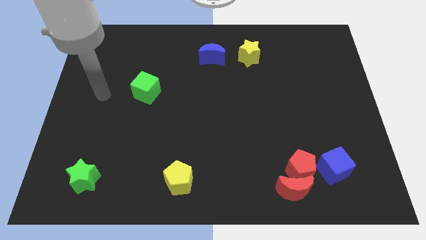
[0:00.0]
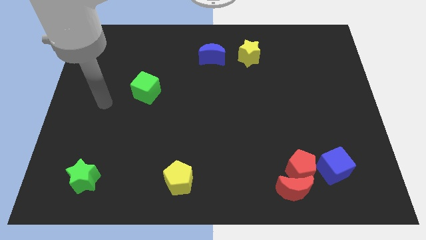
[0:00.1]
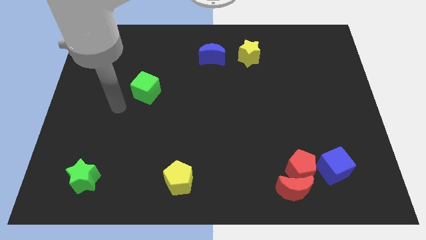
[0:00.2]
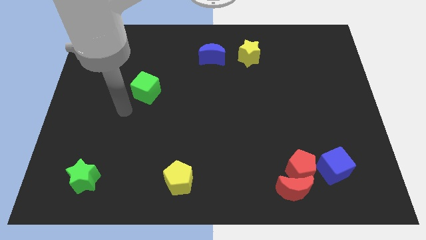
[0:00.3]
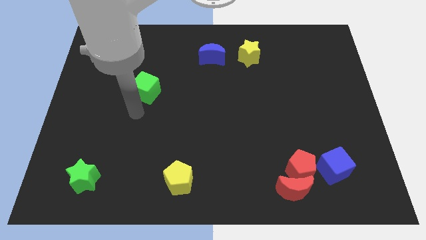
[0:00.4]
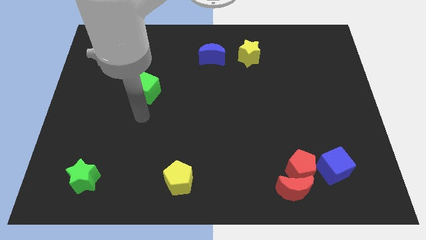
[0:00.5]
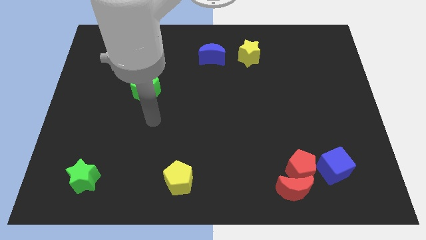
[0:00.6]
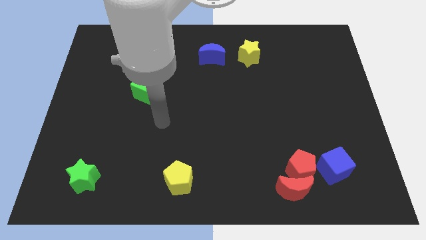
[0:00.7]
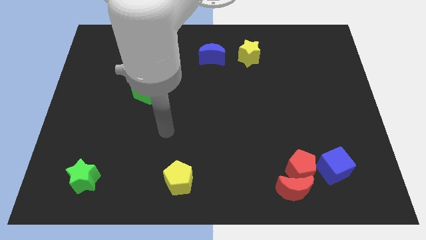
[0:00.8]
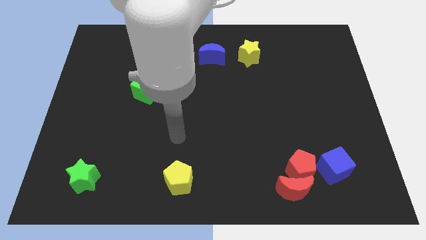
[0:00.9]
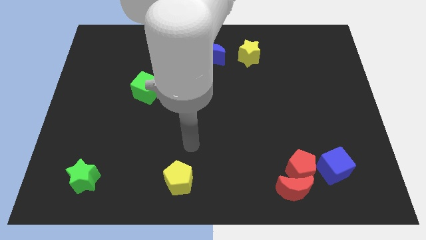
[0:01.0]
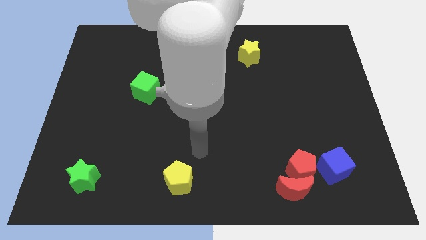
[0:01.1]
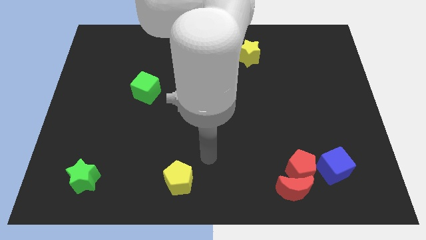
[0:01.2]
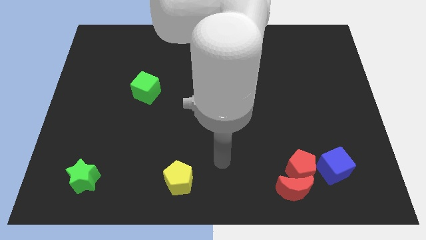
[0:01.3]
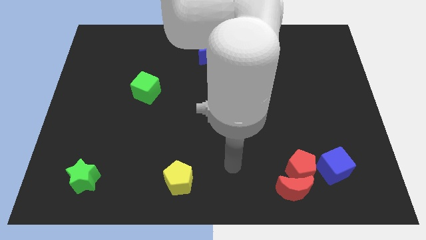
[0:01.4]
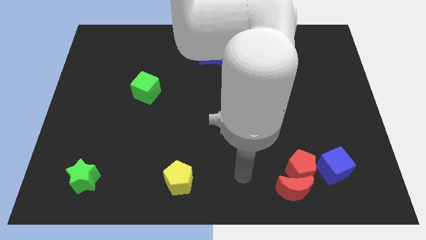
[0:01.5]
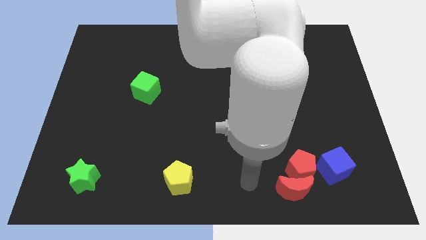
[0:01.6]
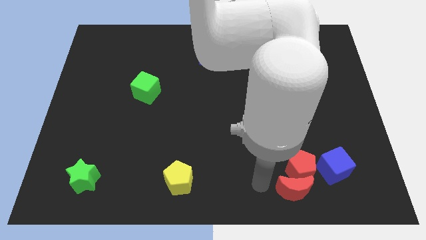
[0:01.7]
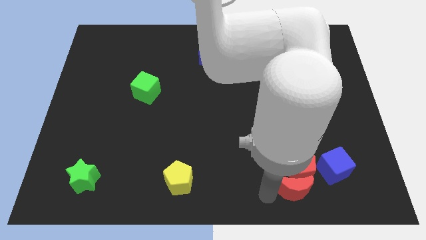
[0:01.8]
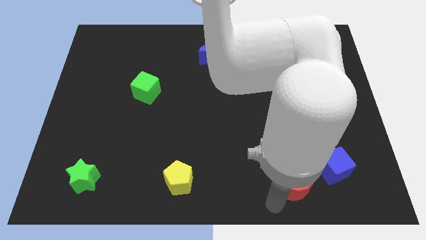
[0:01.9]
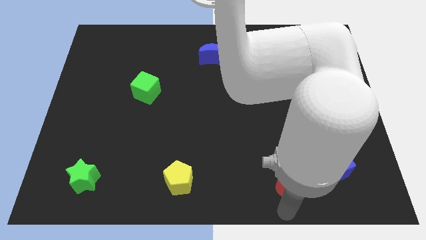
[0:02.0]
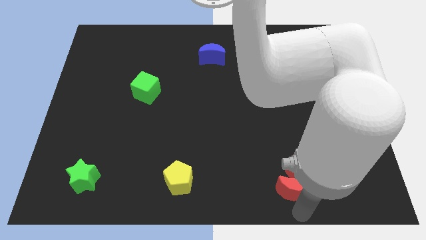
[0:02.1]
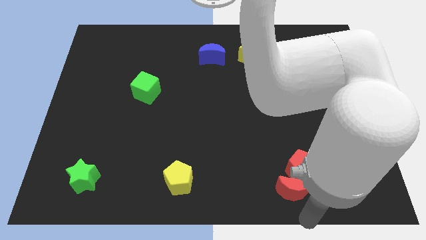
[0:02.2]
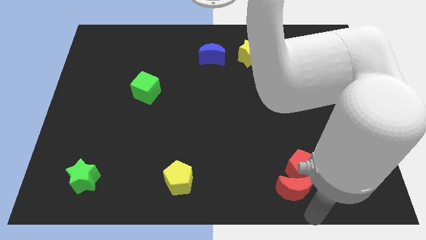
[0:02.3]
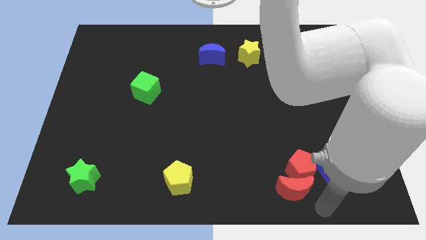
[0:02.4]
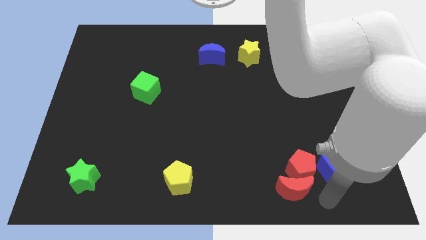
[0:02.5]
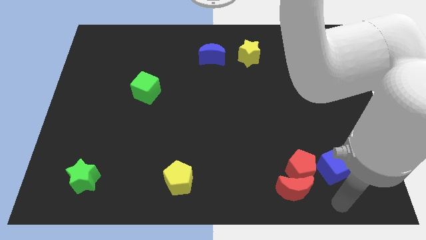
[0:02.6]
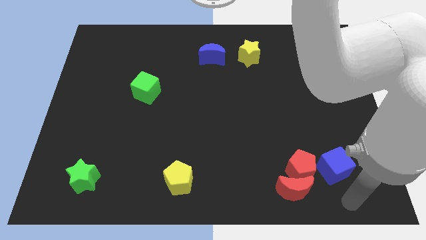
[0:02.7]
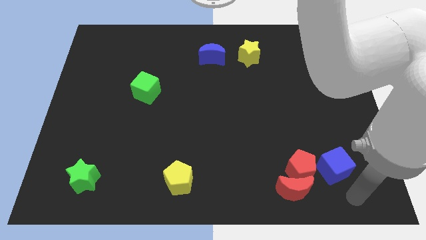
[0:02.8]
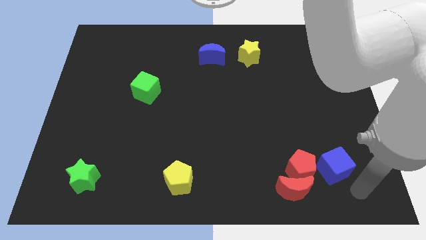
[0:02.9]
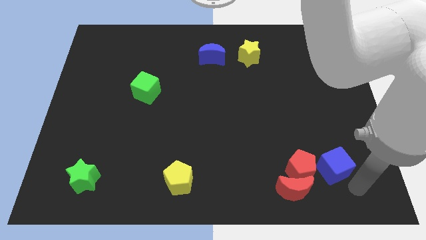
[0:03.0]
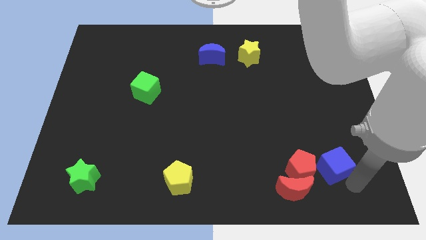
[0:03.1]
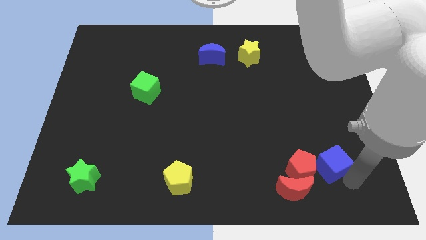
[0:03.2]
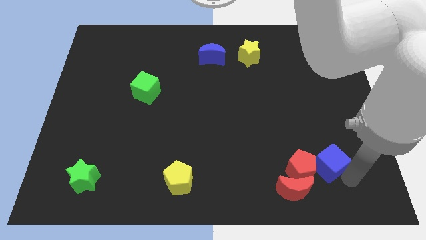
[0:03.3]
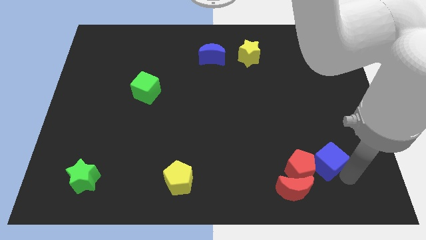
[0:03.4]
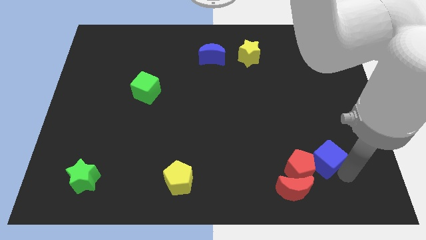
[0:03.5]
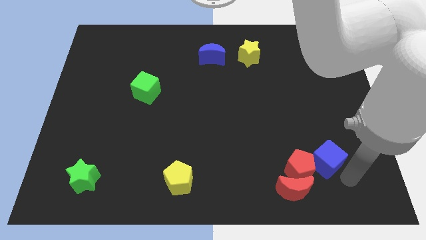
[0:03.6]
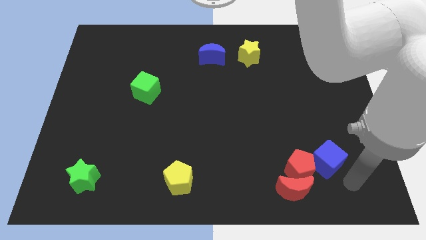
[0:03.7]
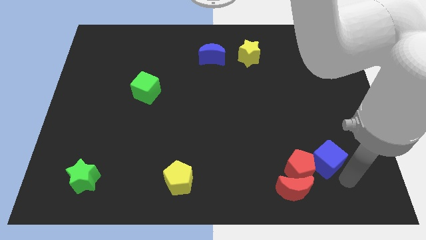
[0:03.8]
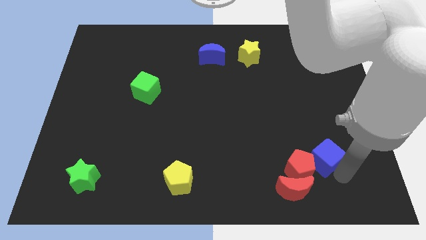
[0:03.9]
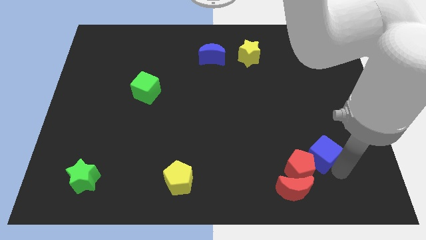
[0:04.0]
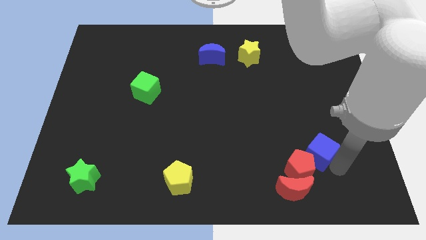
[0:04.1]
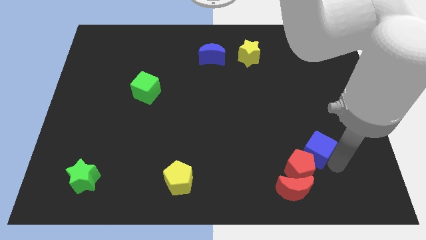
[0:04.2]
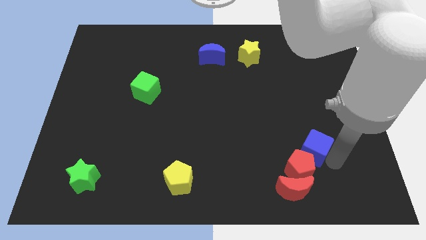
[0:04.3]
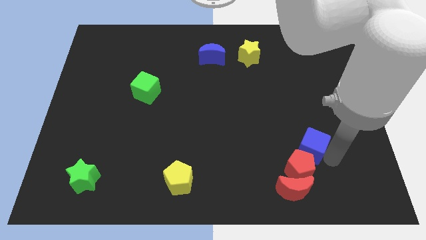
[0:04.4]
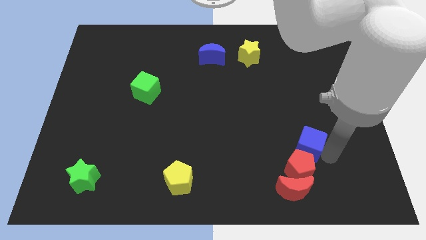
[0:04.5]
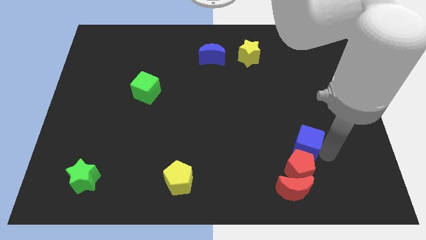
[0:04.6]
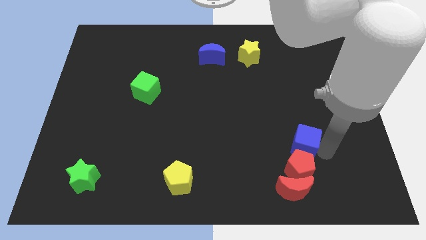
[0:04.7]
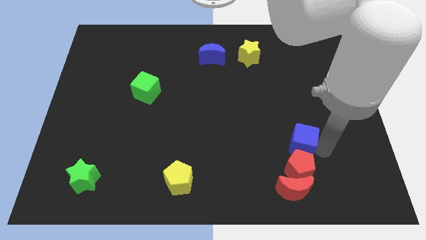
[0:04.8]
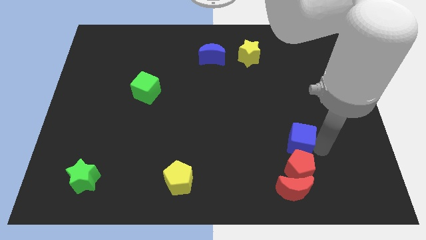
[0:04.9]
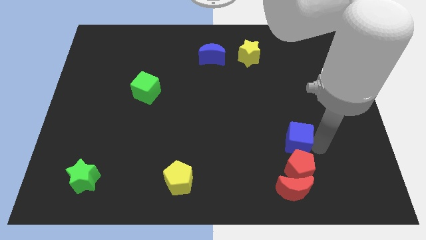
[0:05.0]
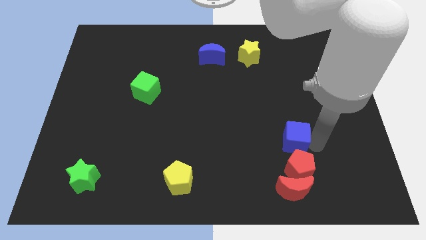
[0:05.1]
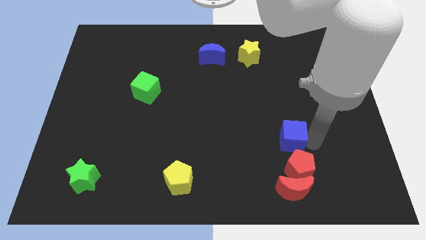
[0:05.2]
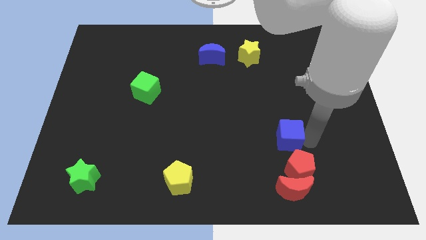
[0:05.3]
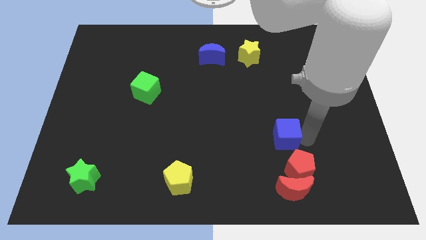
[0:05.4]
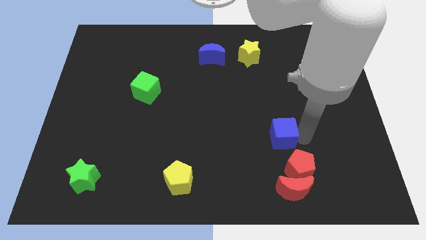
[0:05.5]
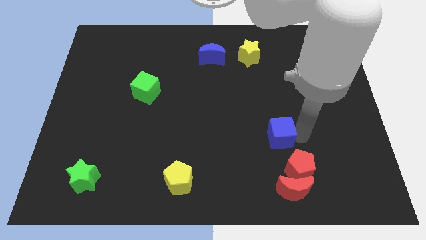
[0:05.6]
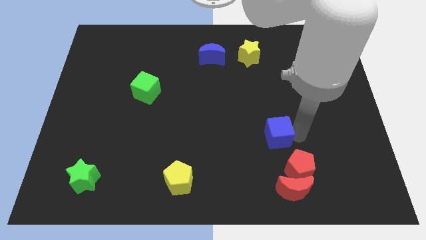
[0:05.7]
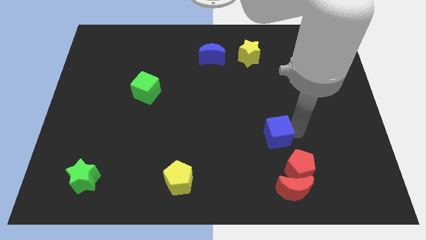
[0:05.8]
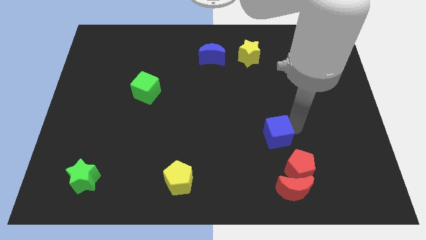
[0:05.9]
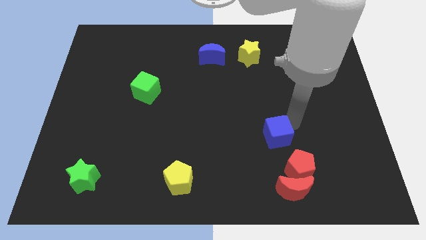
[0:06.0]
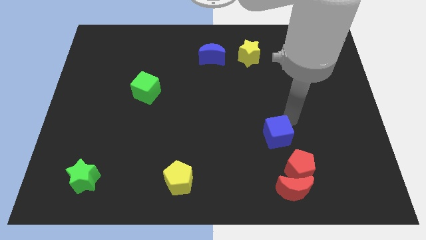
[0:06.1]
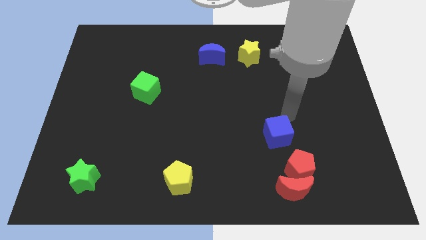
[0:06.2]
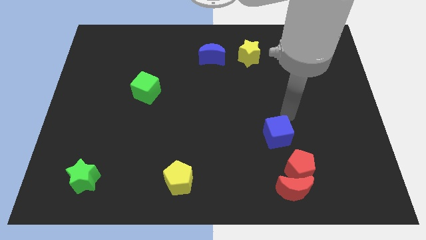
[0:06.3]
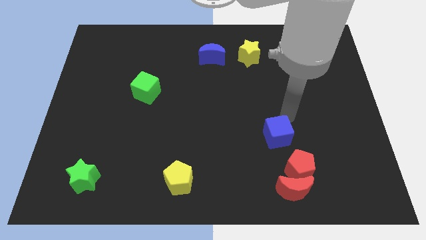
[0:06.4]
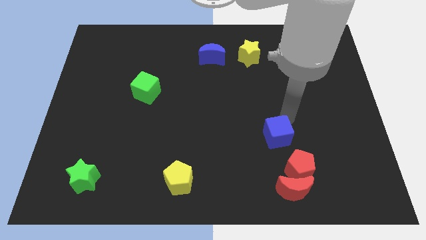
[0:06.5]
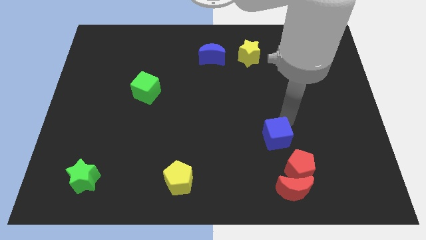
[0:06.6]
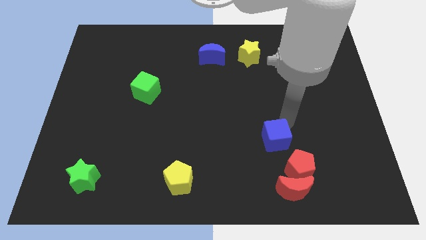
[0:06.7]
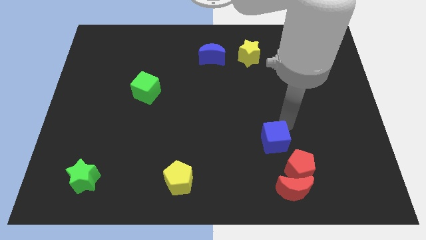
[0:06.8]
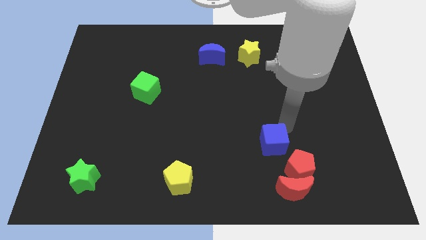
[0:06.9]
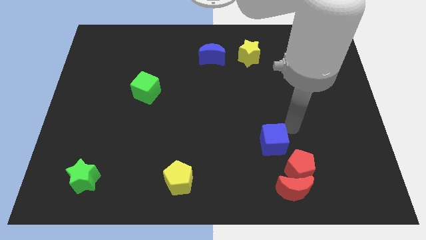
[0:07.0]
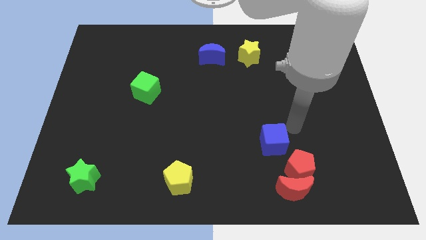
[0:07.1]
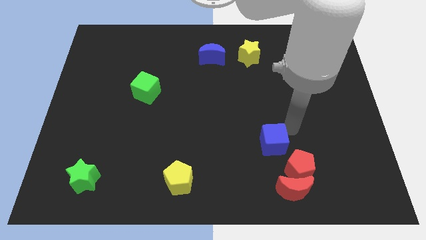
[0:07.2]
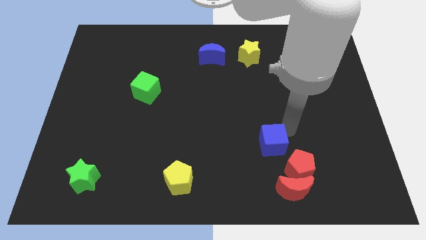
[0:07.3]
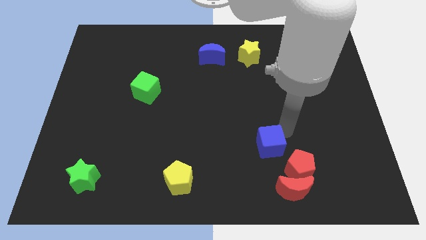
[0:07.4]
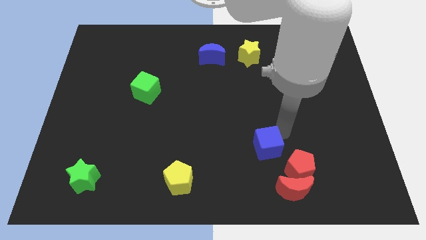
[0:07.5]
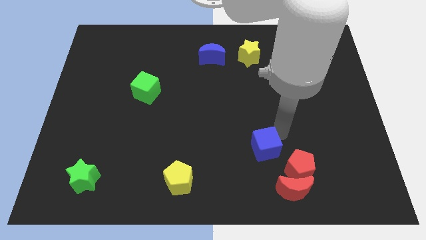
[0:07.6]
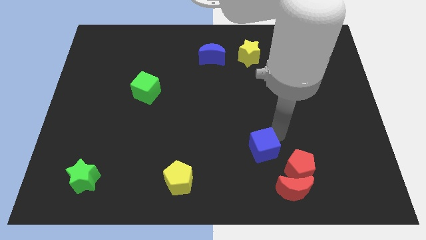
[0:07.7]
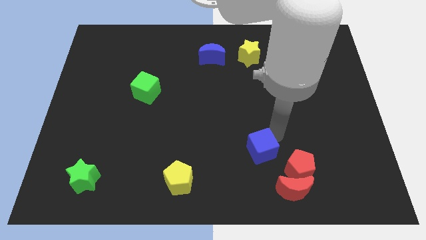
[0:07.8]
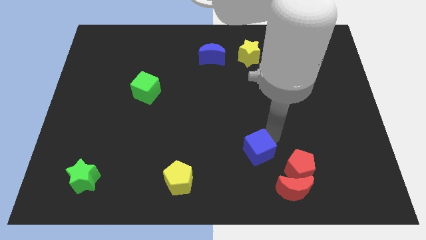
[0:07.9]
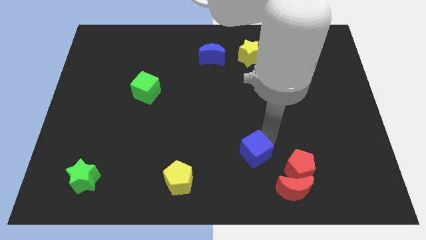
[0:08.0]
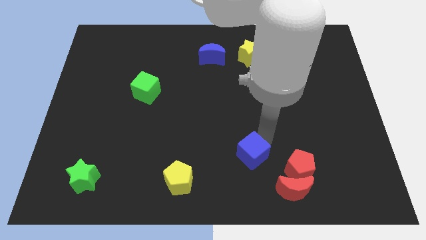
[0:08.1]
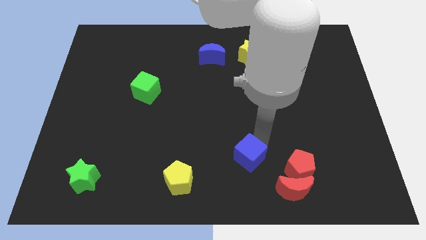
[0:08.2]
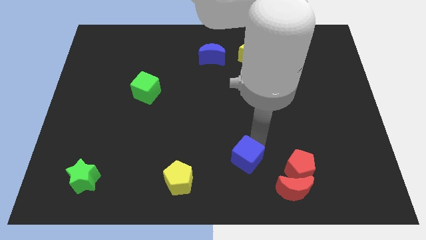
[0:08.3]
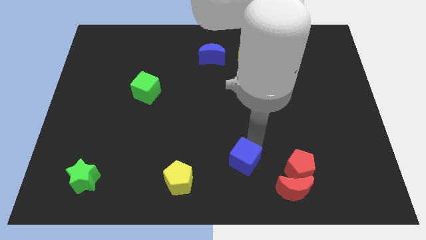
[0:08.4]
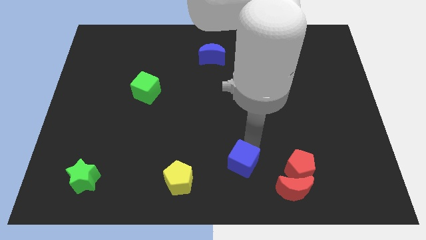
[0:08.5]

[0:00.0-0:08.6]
slide the blue cube just right of the yellow pentagon
